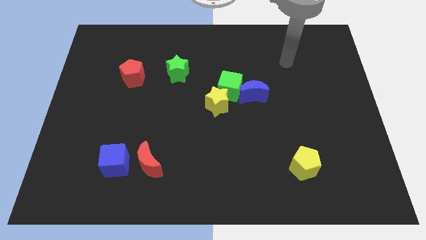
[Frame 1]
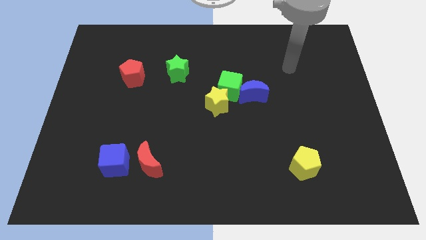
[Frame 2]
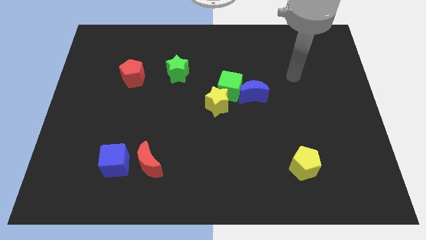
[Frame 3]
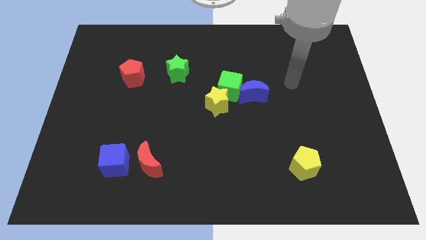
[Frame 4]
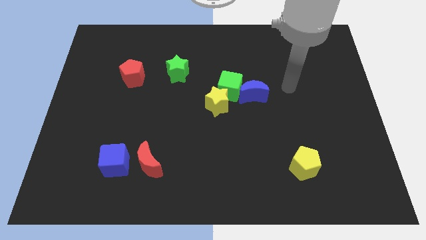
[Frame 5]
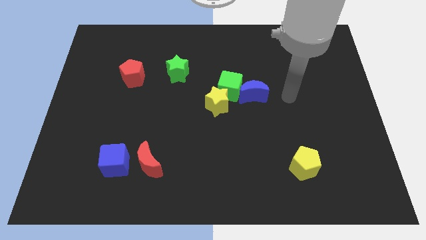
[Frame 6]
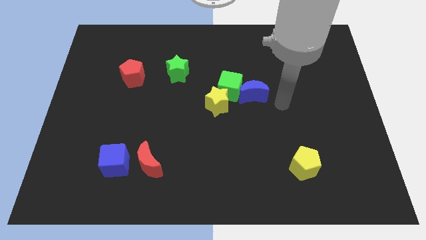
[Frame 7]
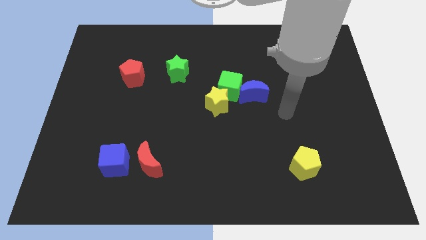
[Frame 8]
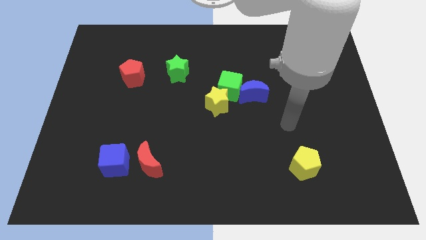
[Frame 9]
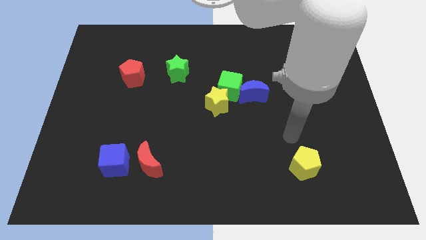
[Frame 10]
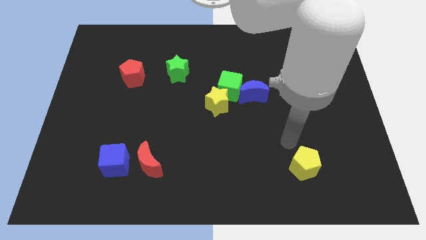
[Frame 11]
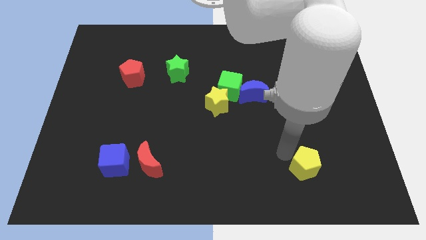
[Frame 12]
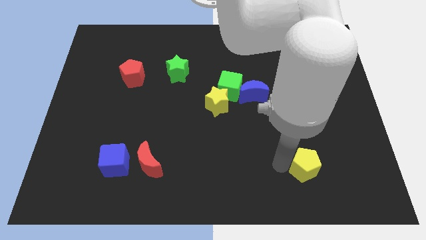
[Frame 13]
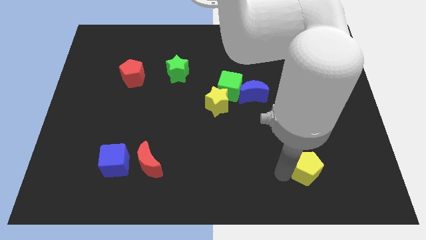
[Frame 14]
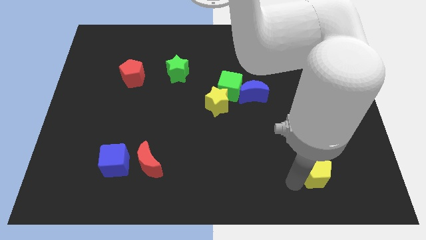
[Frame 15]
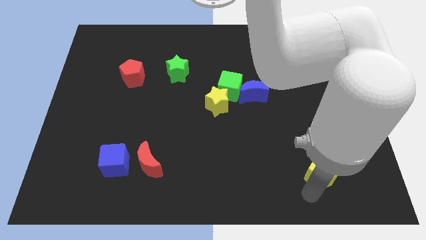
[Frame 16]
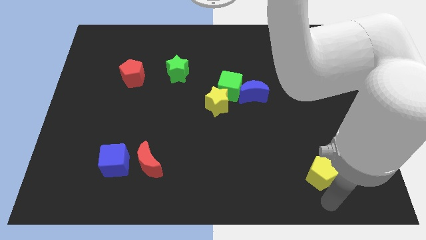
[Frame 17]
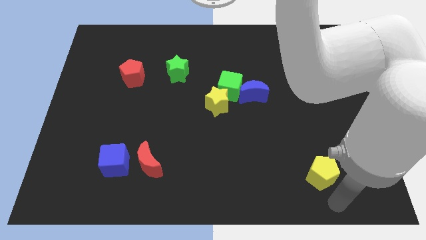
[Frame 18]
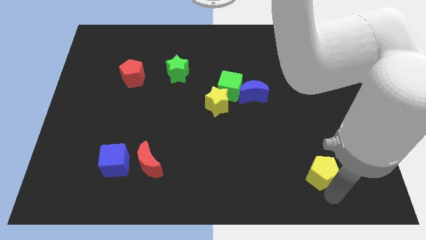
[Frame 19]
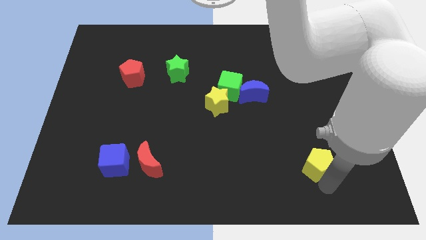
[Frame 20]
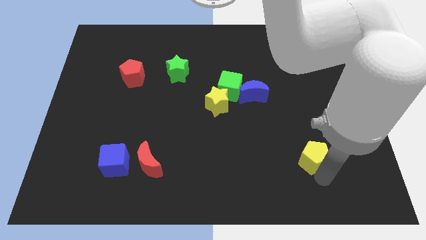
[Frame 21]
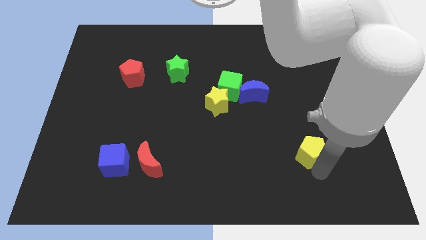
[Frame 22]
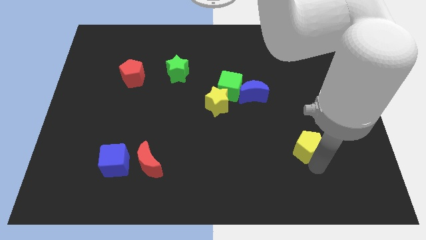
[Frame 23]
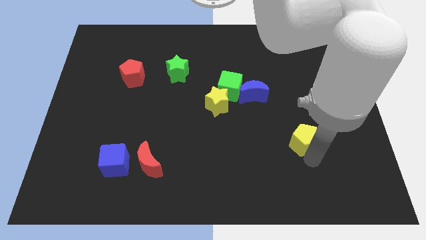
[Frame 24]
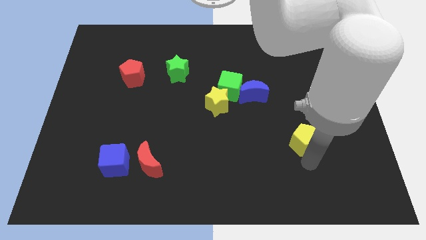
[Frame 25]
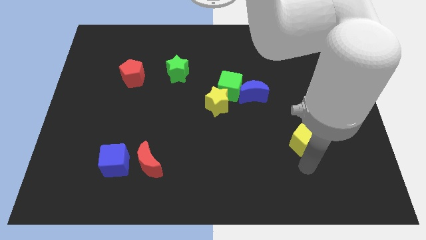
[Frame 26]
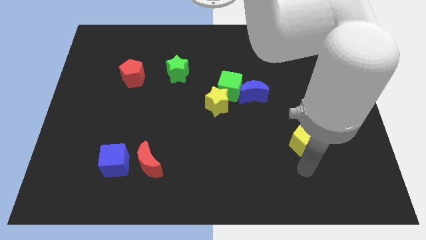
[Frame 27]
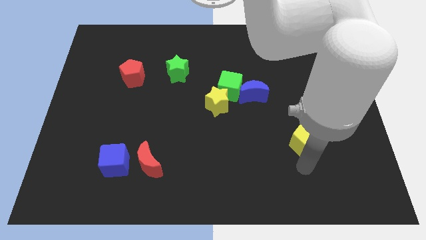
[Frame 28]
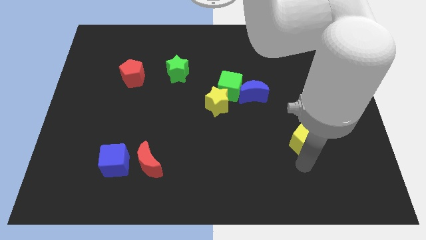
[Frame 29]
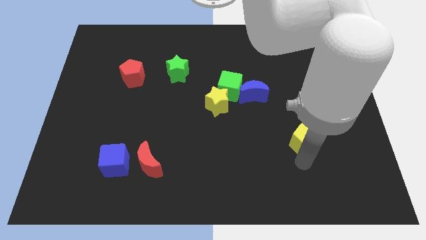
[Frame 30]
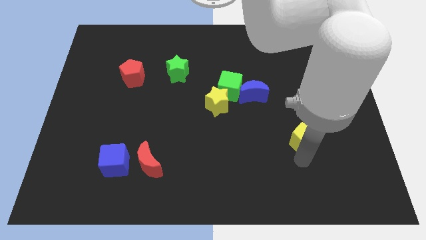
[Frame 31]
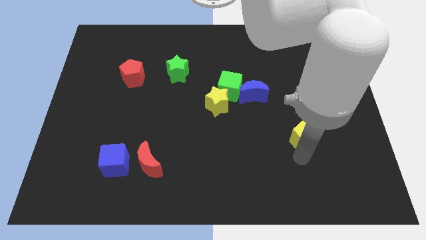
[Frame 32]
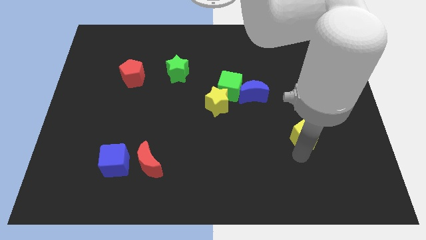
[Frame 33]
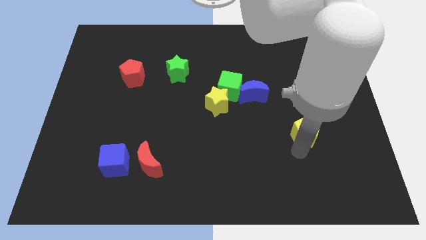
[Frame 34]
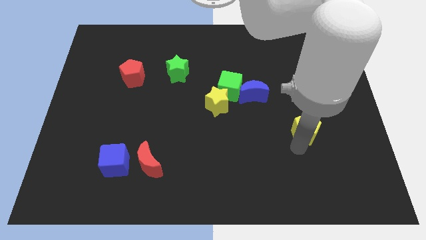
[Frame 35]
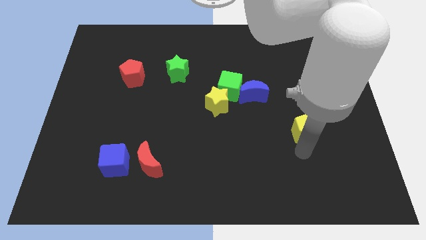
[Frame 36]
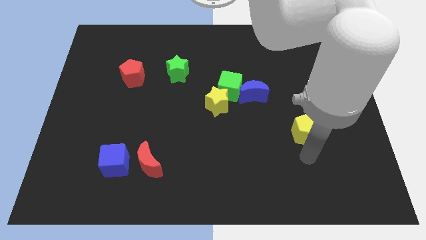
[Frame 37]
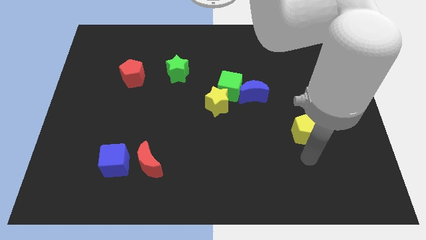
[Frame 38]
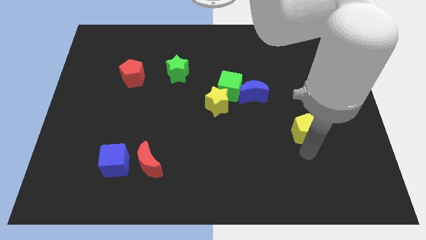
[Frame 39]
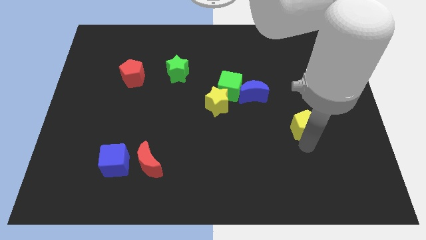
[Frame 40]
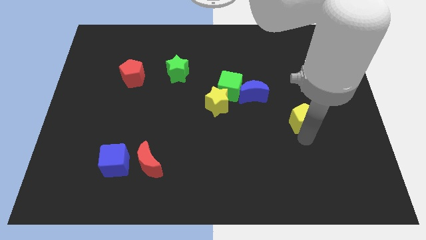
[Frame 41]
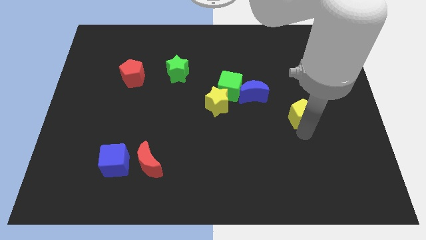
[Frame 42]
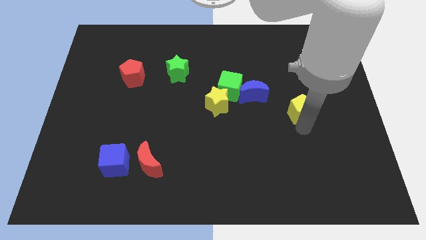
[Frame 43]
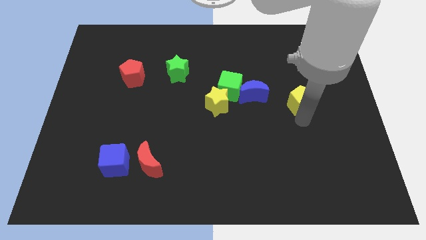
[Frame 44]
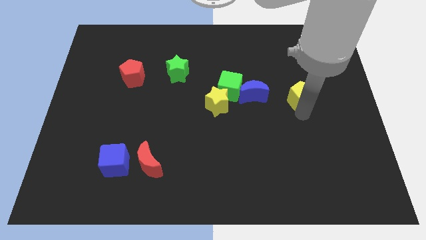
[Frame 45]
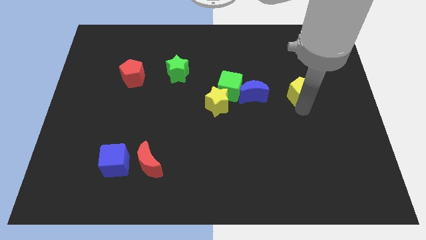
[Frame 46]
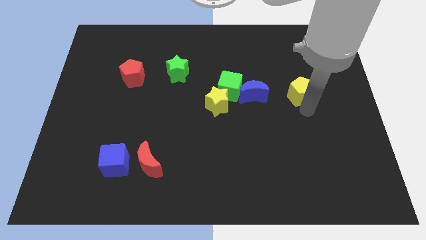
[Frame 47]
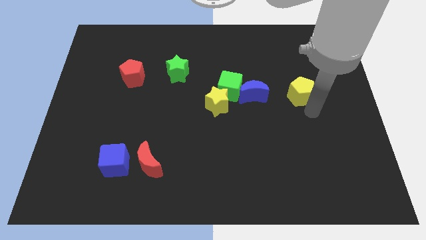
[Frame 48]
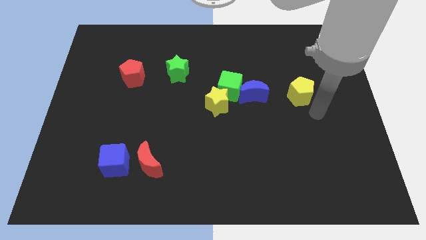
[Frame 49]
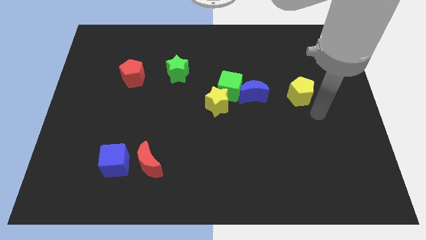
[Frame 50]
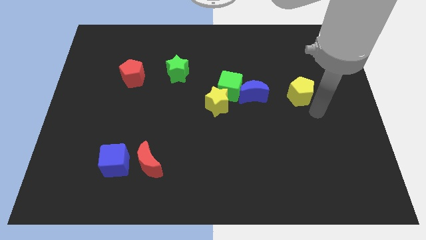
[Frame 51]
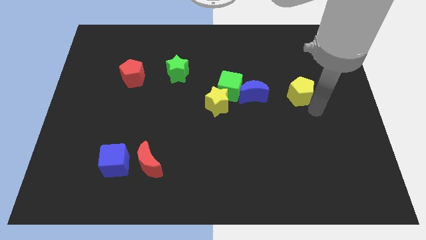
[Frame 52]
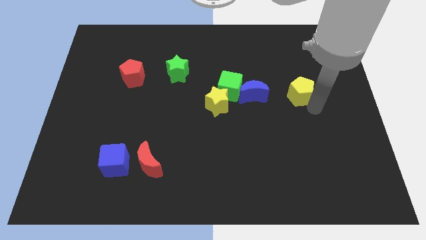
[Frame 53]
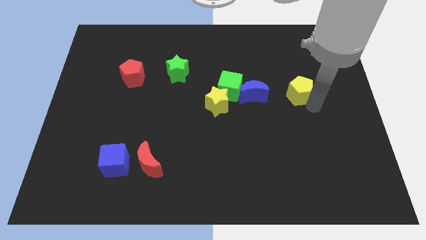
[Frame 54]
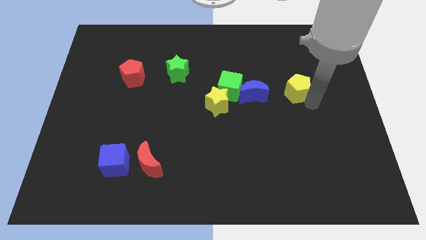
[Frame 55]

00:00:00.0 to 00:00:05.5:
push the yellow pentagon up

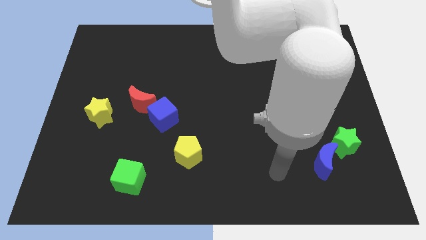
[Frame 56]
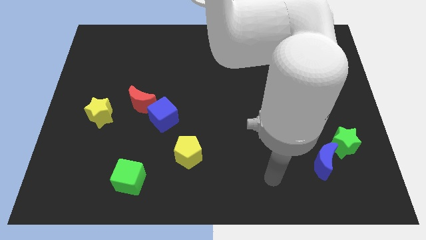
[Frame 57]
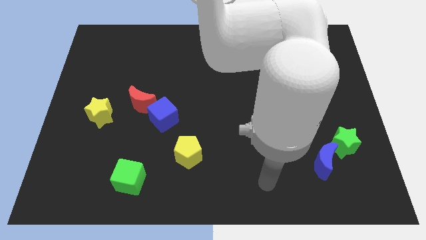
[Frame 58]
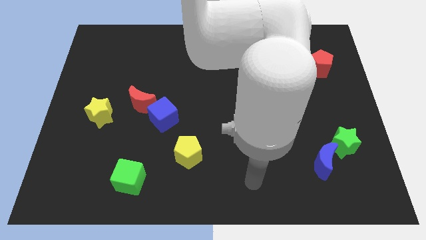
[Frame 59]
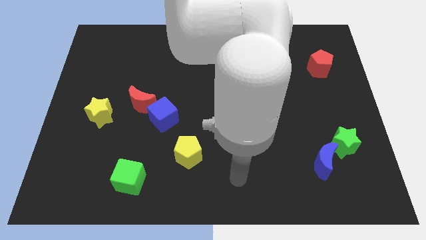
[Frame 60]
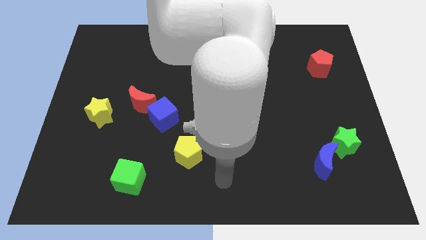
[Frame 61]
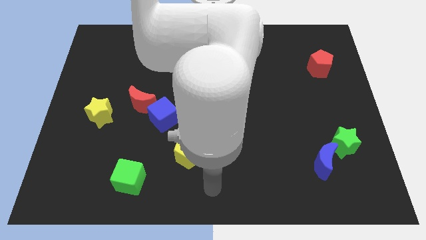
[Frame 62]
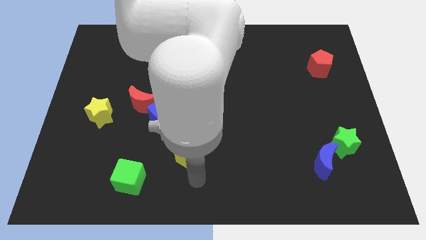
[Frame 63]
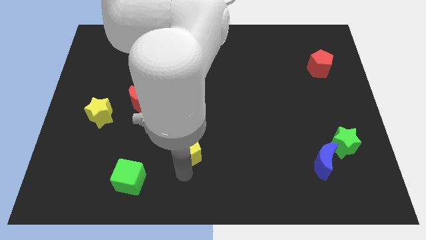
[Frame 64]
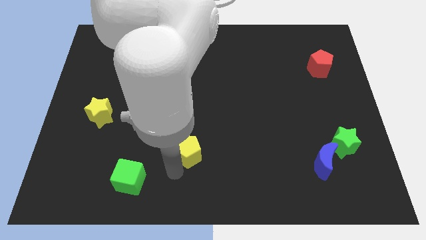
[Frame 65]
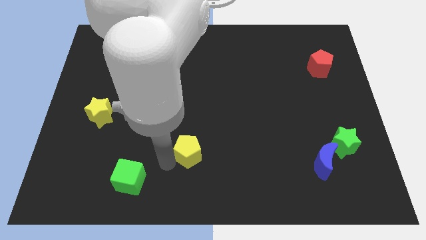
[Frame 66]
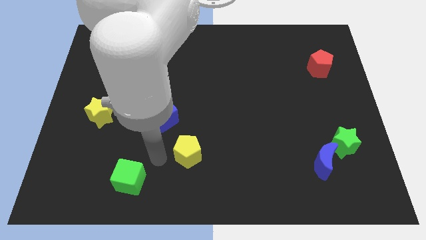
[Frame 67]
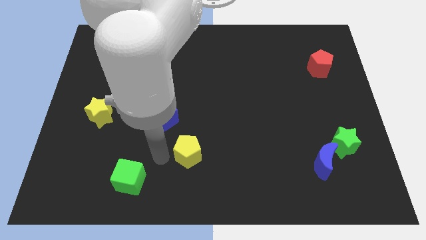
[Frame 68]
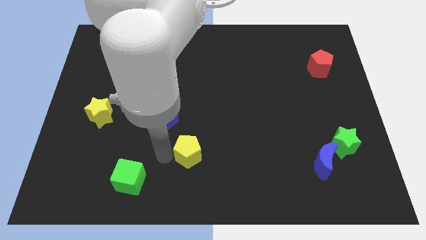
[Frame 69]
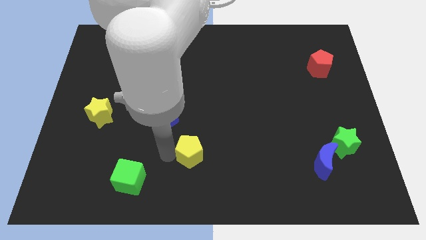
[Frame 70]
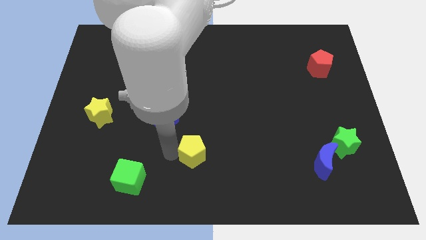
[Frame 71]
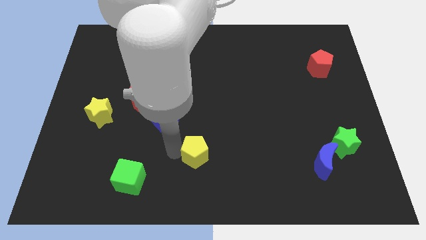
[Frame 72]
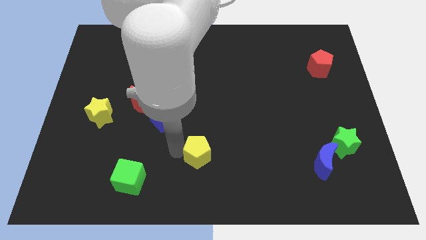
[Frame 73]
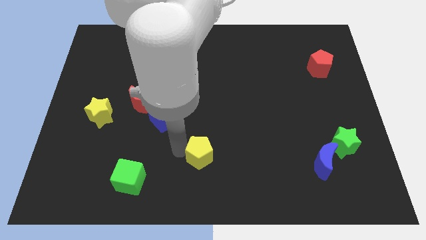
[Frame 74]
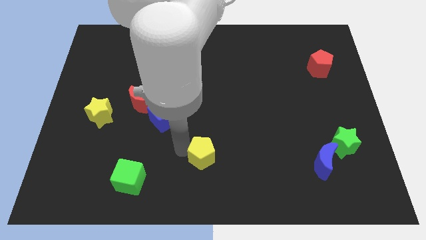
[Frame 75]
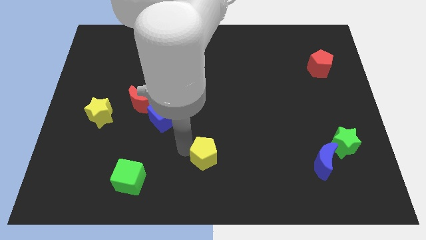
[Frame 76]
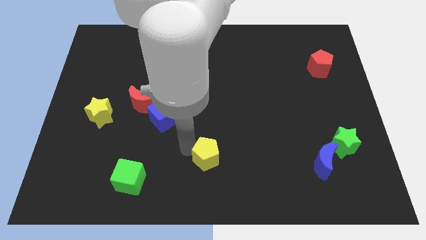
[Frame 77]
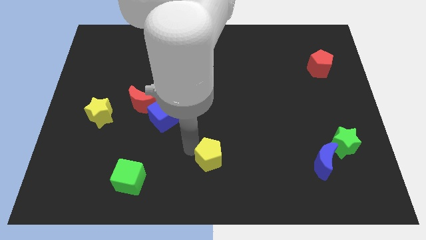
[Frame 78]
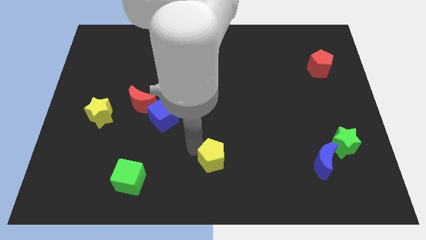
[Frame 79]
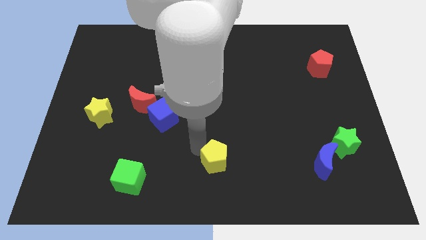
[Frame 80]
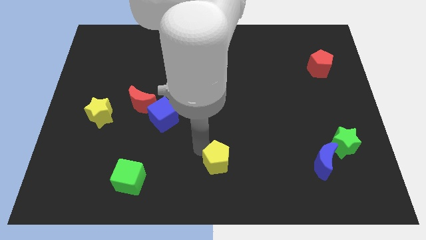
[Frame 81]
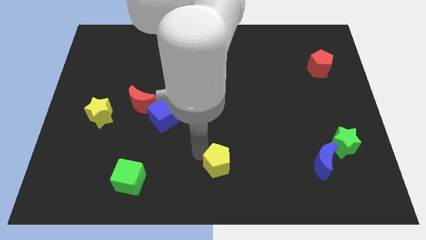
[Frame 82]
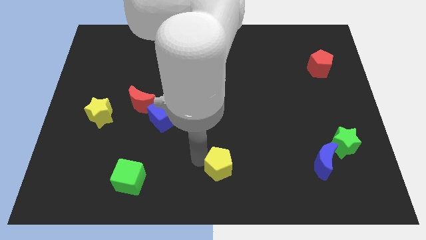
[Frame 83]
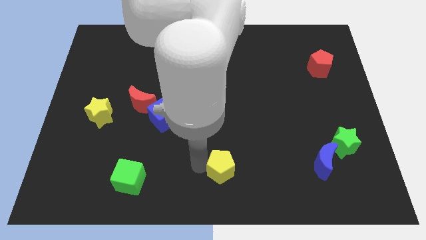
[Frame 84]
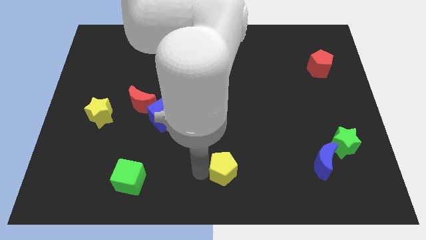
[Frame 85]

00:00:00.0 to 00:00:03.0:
move the yellow pentagon somewhat to the right
